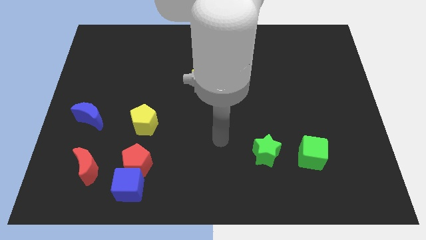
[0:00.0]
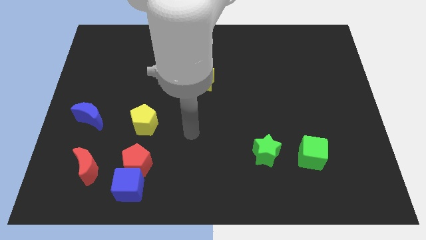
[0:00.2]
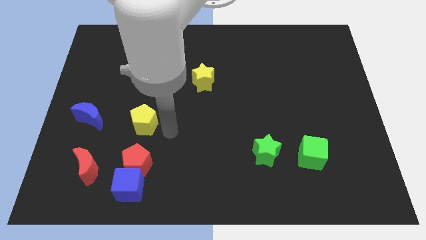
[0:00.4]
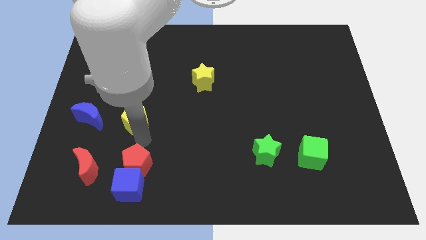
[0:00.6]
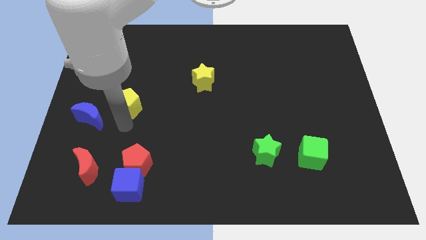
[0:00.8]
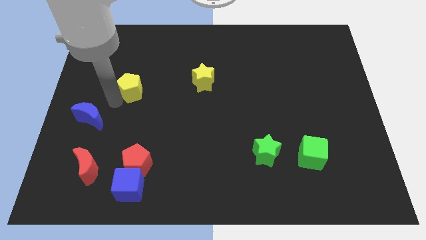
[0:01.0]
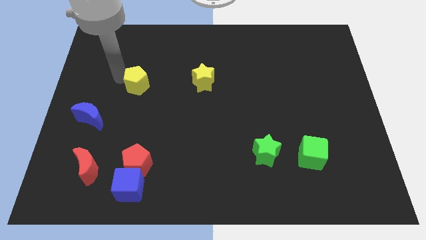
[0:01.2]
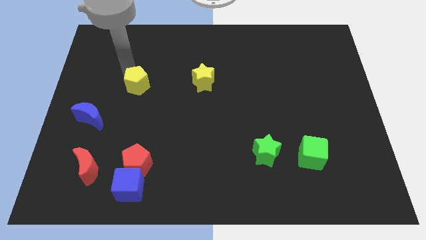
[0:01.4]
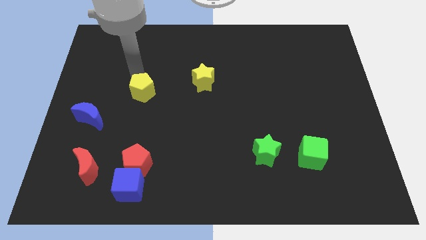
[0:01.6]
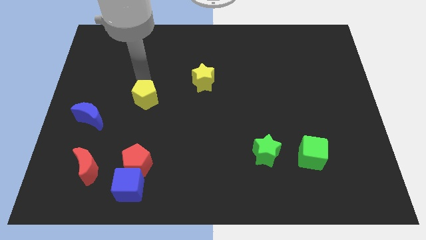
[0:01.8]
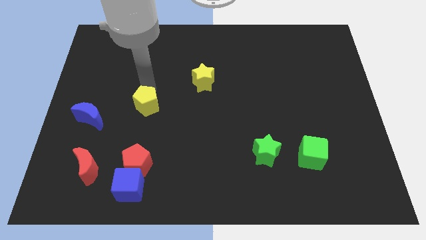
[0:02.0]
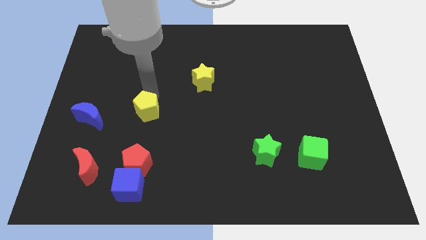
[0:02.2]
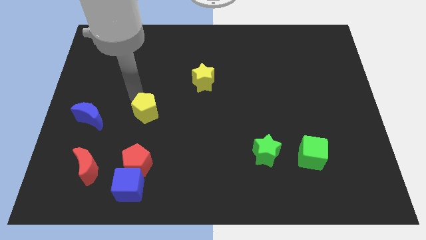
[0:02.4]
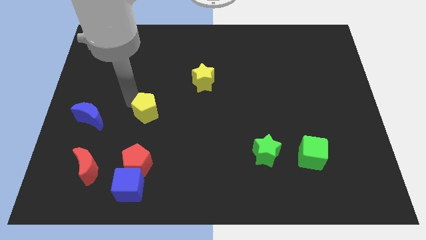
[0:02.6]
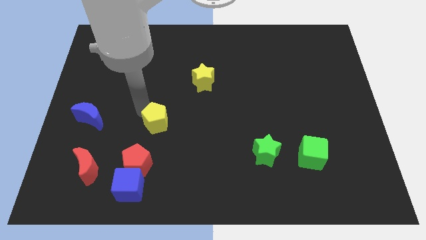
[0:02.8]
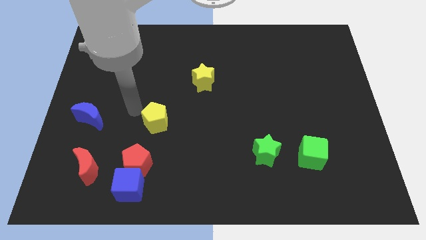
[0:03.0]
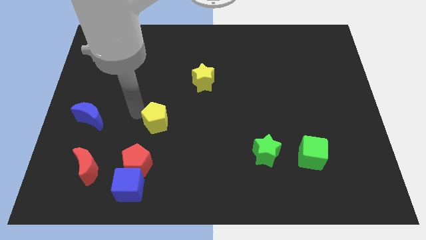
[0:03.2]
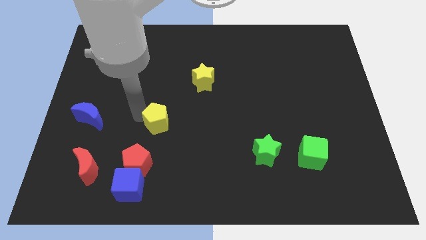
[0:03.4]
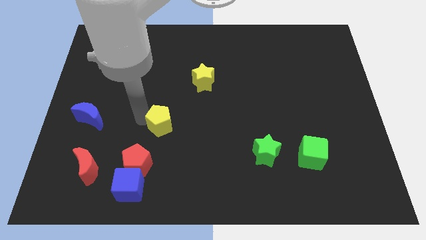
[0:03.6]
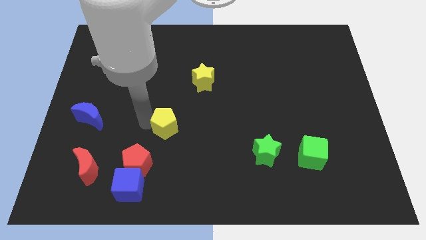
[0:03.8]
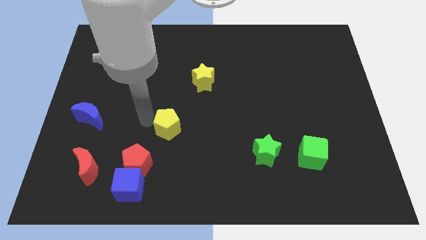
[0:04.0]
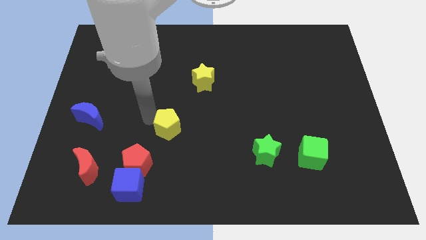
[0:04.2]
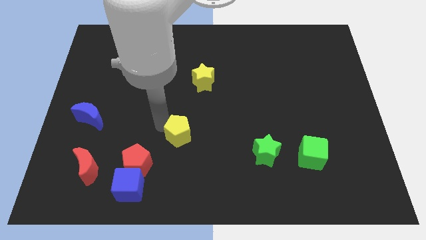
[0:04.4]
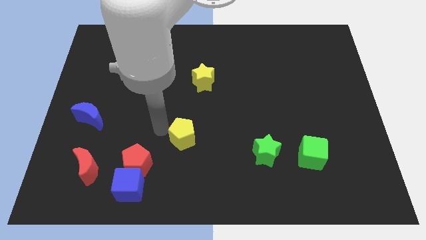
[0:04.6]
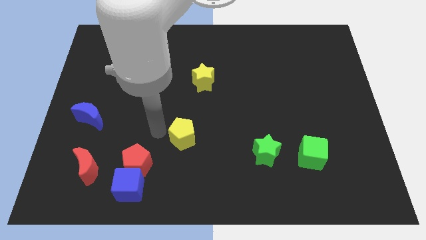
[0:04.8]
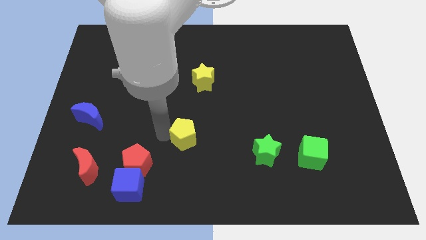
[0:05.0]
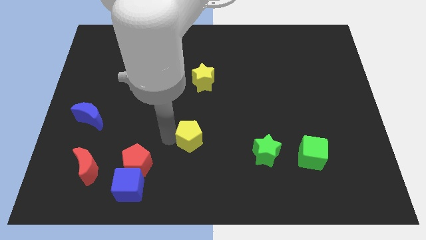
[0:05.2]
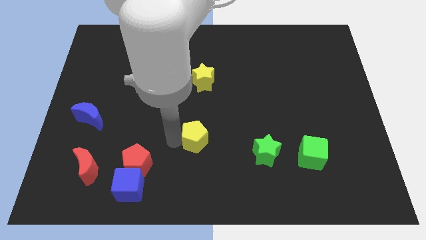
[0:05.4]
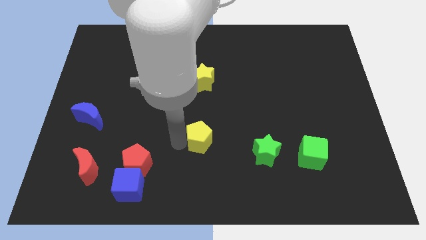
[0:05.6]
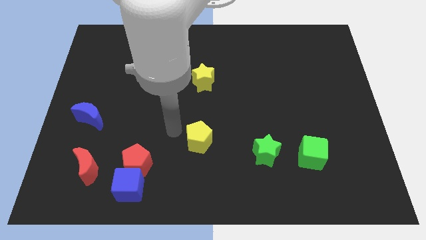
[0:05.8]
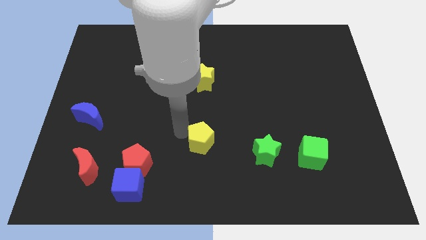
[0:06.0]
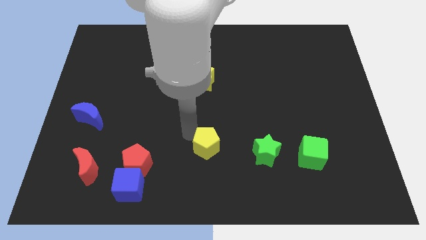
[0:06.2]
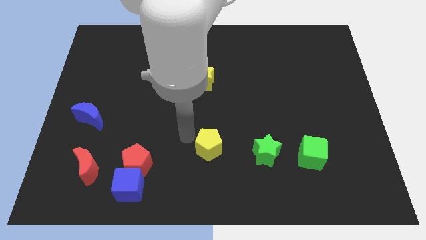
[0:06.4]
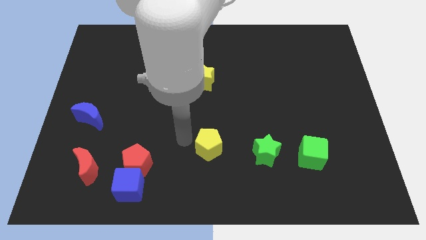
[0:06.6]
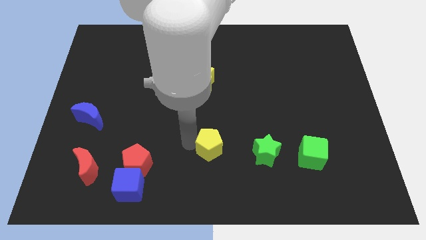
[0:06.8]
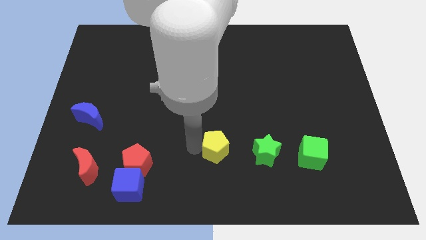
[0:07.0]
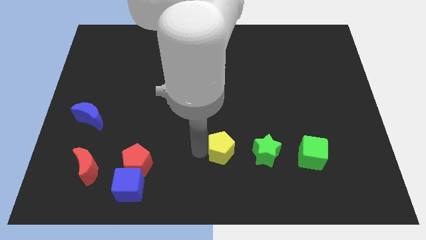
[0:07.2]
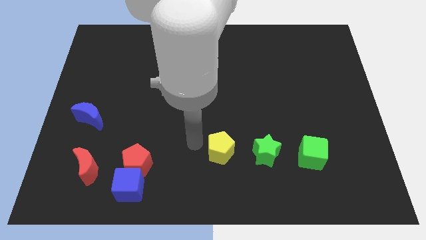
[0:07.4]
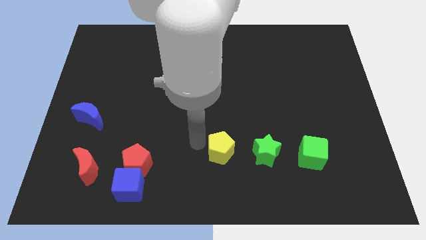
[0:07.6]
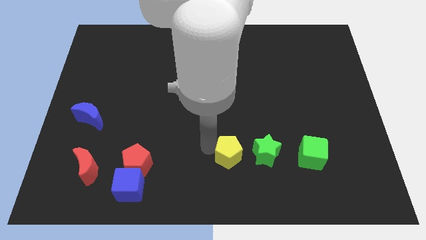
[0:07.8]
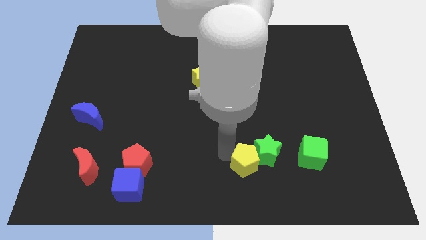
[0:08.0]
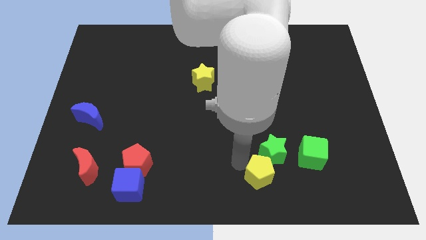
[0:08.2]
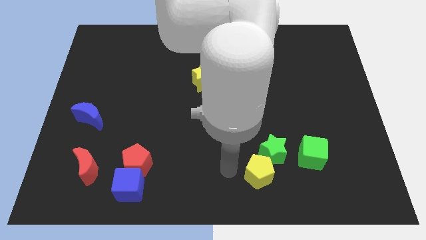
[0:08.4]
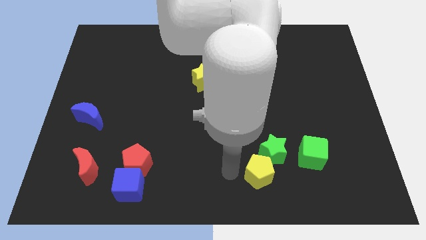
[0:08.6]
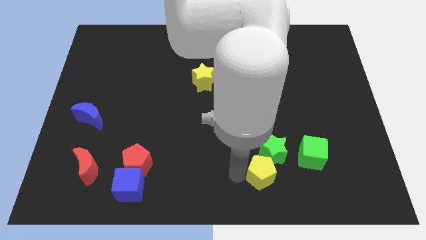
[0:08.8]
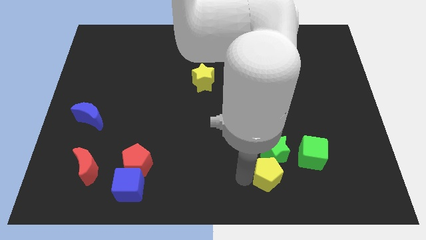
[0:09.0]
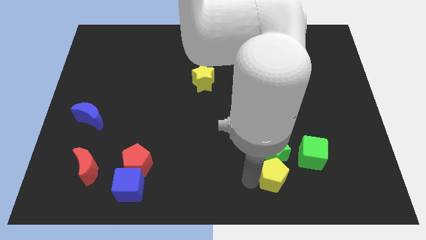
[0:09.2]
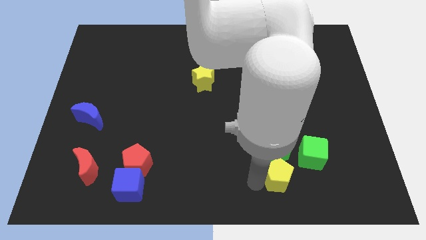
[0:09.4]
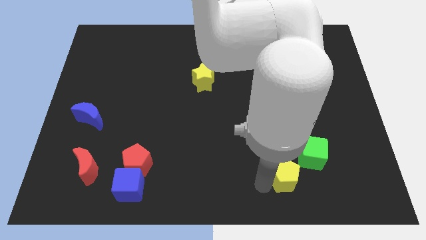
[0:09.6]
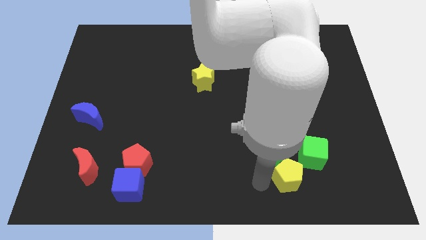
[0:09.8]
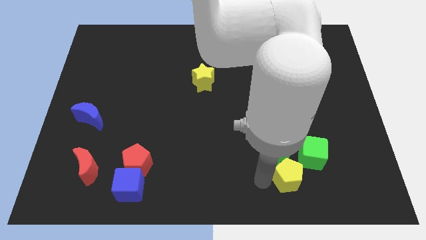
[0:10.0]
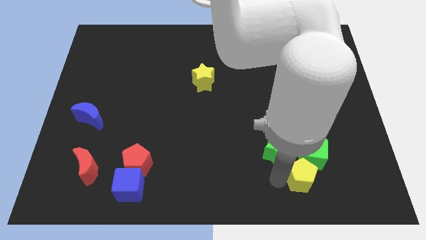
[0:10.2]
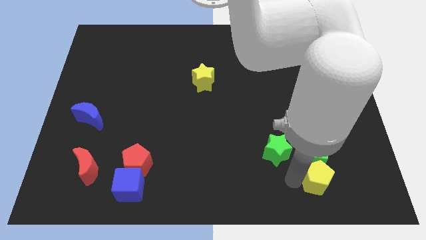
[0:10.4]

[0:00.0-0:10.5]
slide the yellow pentagon to the bottom right of the green cube

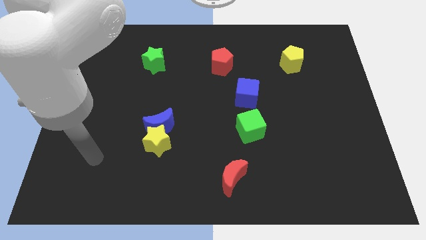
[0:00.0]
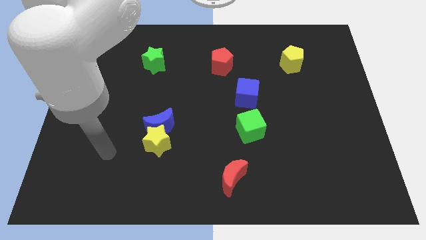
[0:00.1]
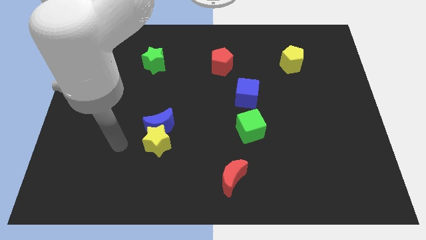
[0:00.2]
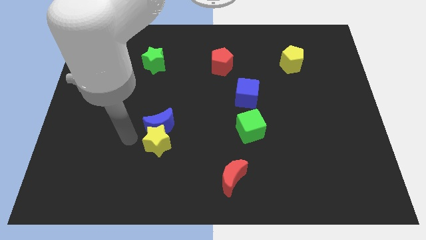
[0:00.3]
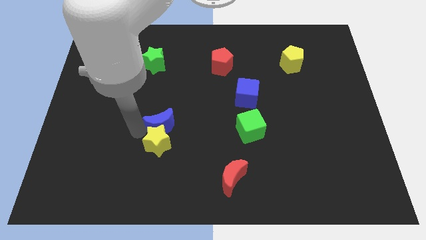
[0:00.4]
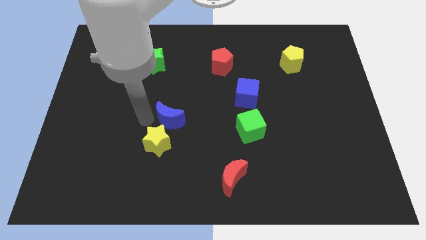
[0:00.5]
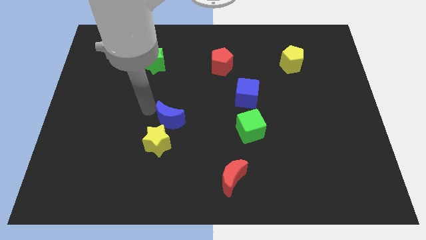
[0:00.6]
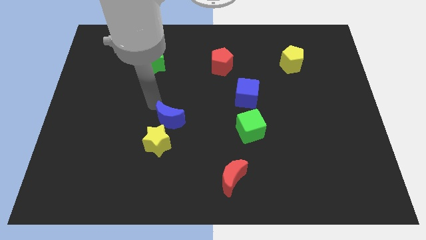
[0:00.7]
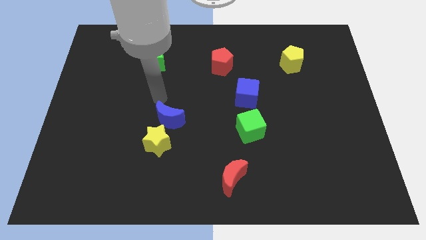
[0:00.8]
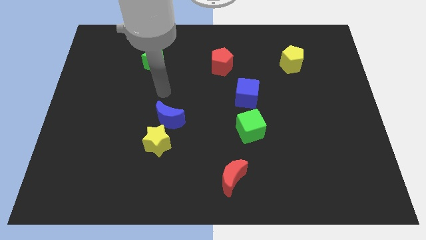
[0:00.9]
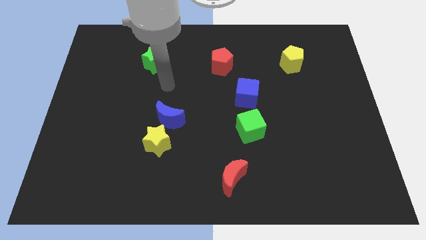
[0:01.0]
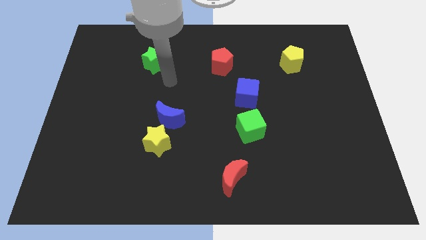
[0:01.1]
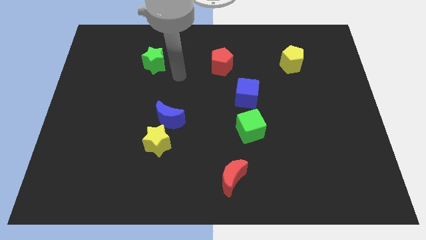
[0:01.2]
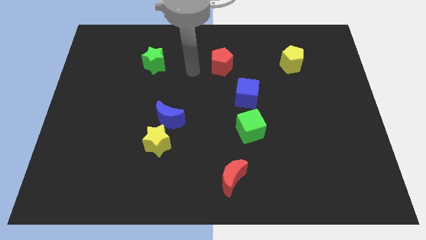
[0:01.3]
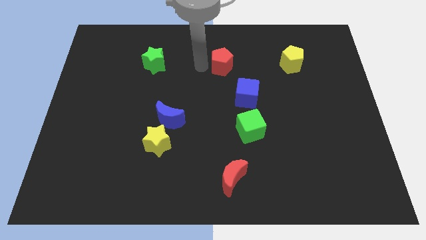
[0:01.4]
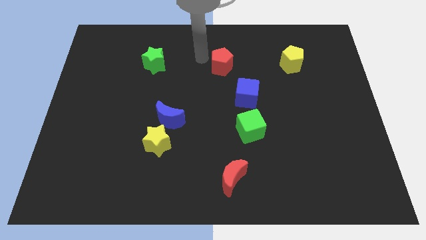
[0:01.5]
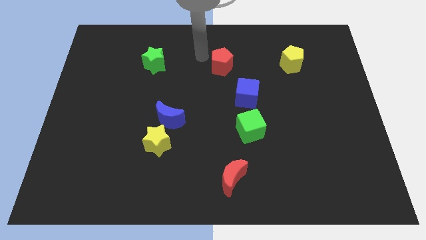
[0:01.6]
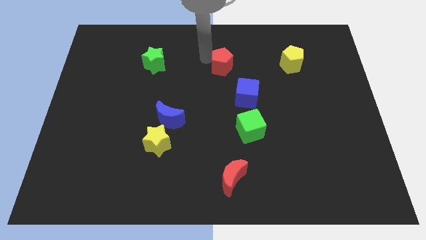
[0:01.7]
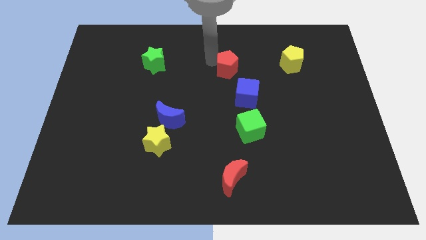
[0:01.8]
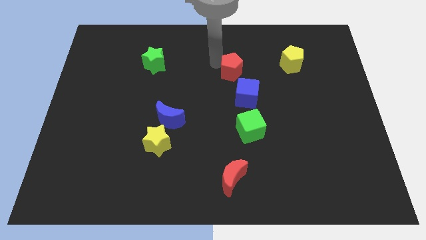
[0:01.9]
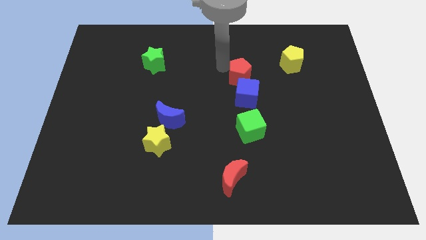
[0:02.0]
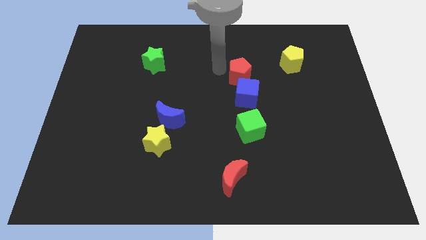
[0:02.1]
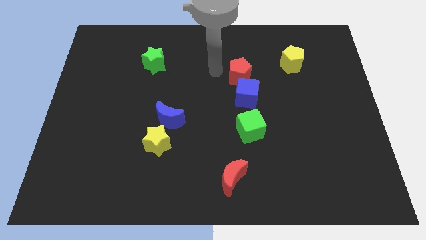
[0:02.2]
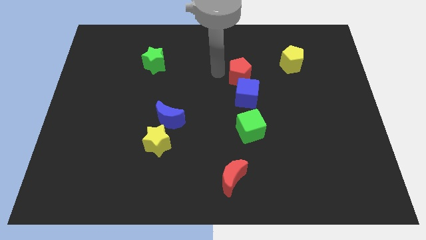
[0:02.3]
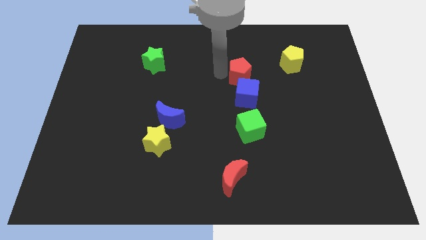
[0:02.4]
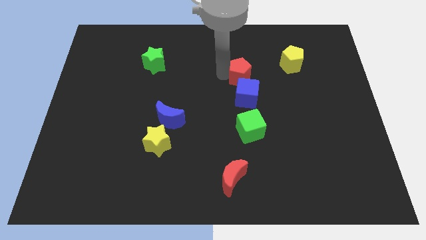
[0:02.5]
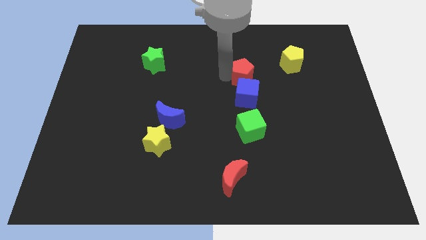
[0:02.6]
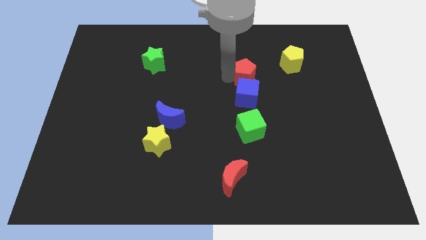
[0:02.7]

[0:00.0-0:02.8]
move the red pentagon to the top right of the blue cube
